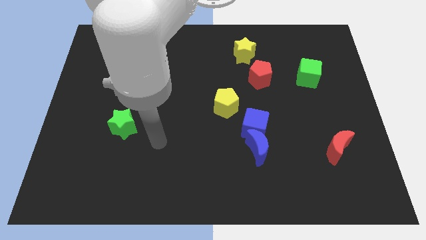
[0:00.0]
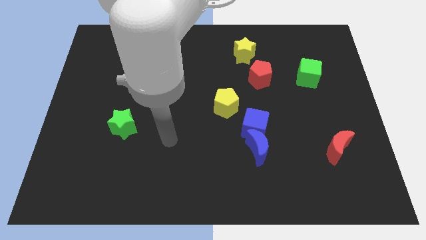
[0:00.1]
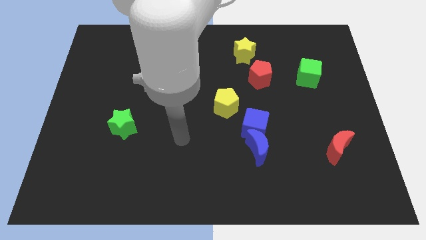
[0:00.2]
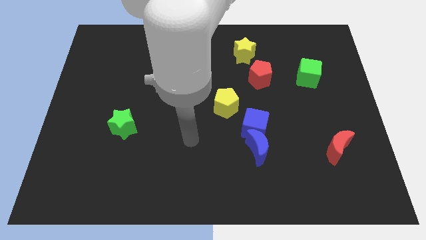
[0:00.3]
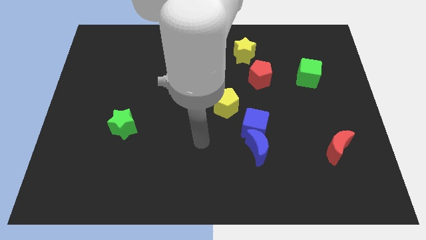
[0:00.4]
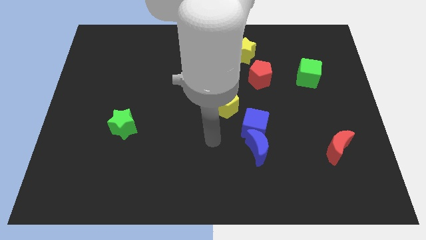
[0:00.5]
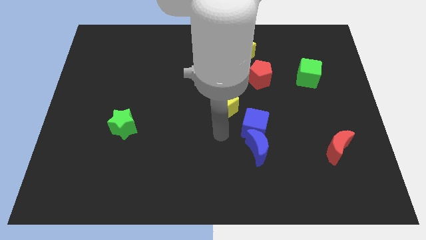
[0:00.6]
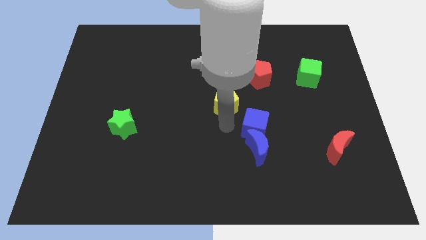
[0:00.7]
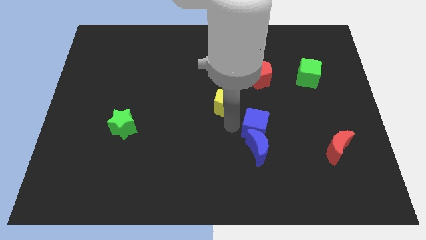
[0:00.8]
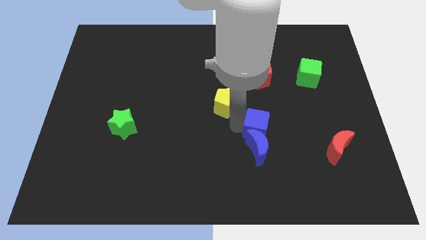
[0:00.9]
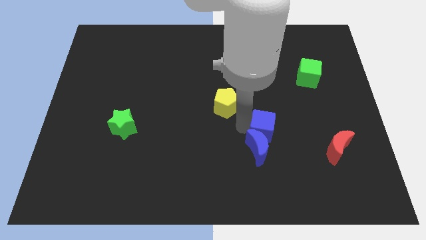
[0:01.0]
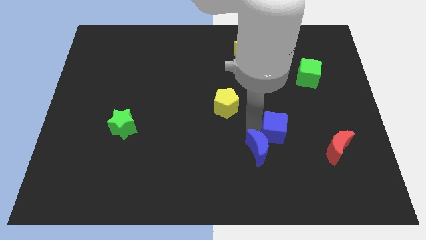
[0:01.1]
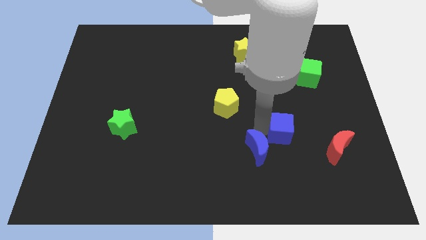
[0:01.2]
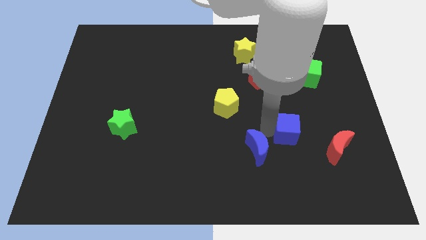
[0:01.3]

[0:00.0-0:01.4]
move the blue cube a little bit to the right

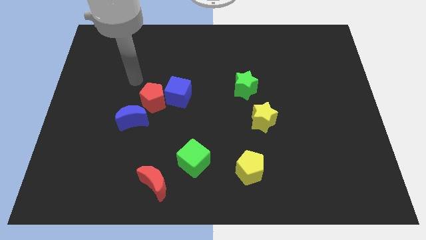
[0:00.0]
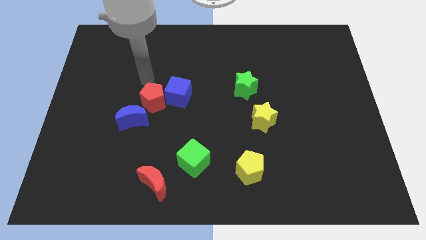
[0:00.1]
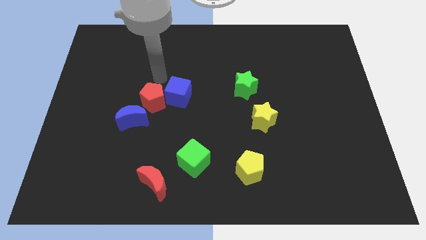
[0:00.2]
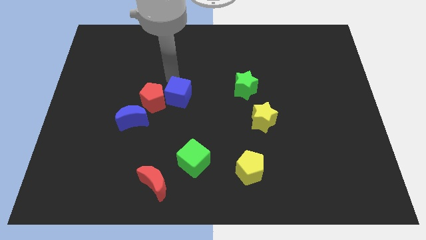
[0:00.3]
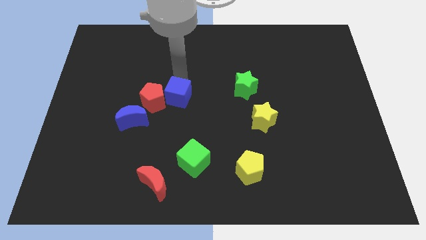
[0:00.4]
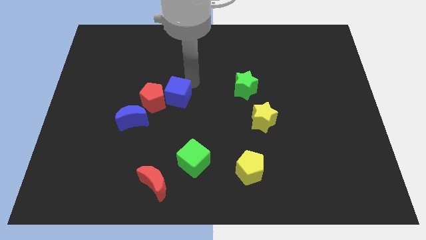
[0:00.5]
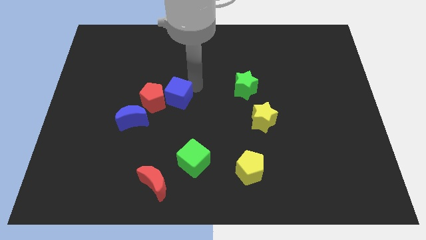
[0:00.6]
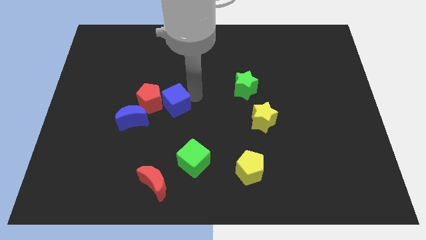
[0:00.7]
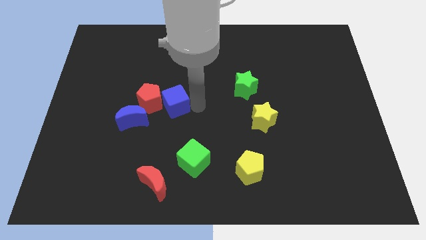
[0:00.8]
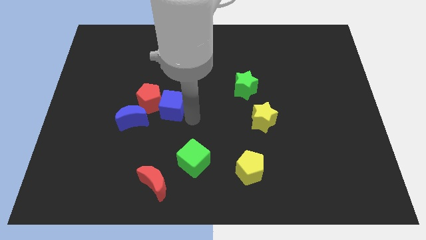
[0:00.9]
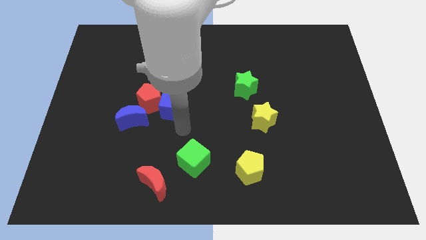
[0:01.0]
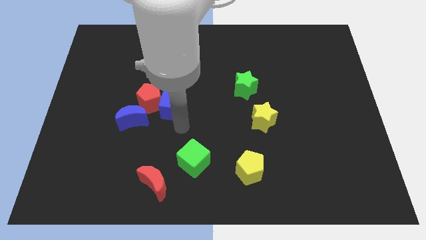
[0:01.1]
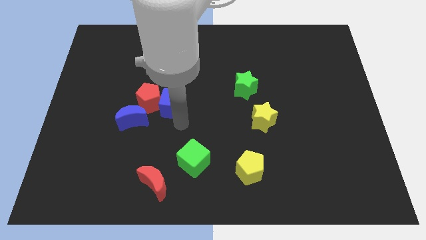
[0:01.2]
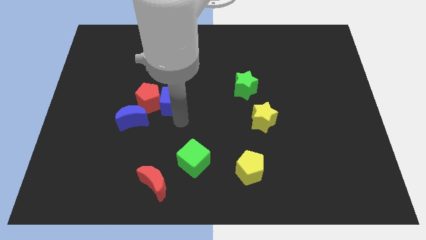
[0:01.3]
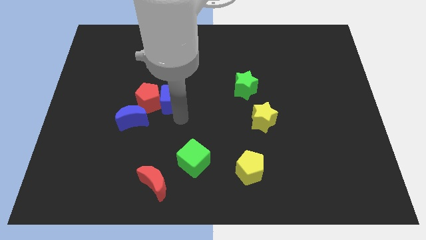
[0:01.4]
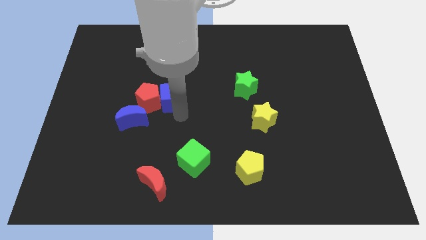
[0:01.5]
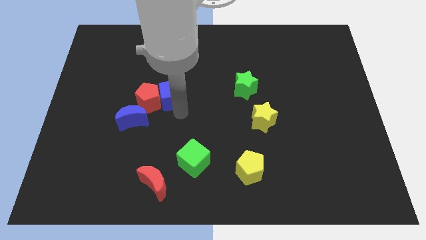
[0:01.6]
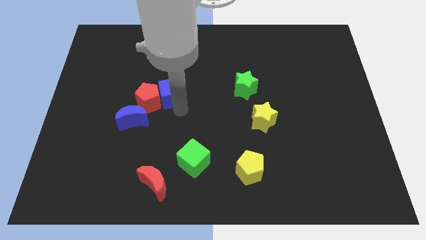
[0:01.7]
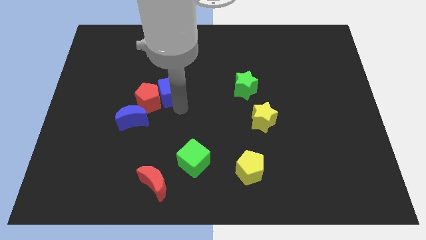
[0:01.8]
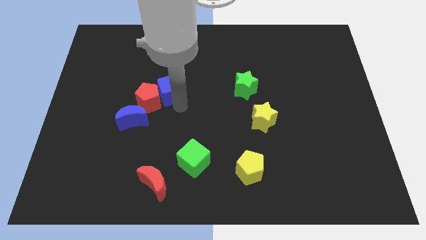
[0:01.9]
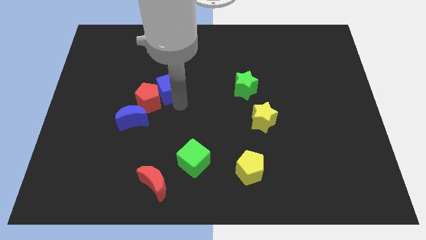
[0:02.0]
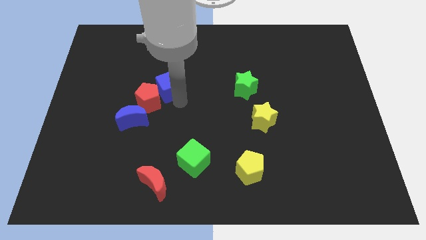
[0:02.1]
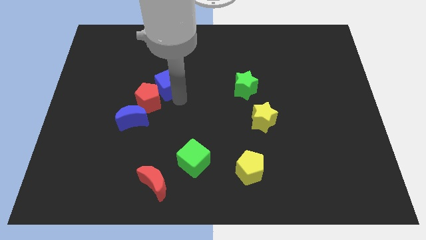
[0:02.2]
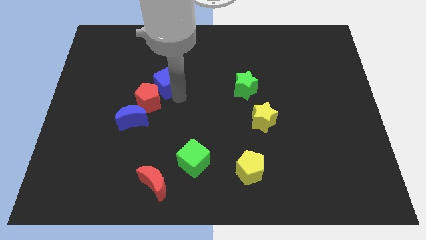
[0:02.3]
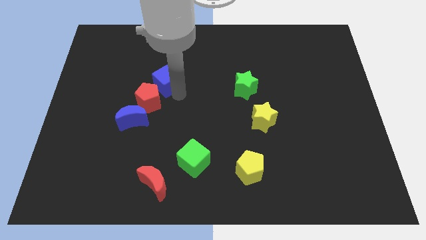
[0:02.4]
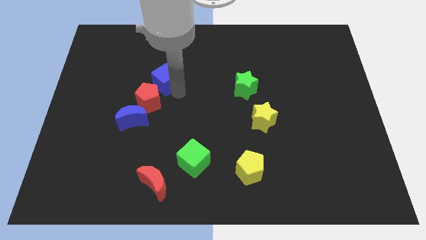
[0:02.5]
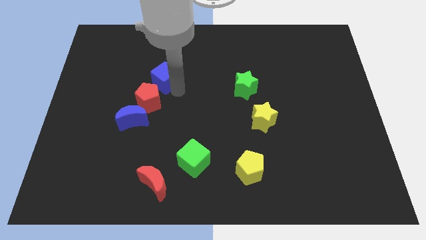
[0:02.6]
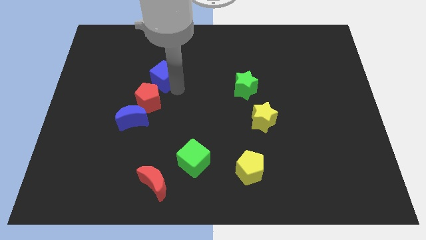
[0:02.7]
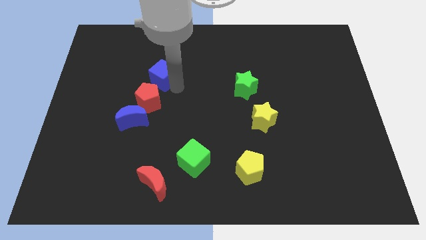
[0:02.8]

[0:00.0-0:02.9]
push the blue cube upwards and to the left diagonally somewhat

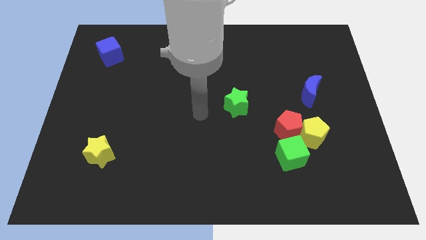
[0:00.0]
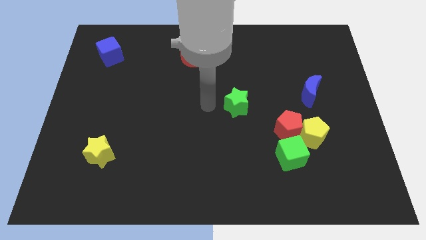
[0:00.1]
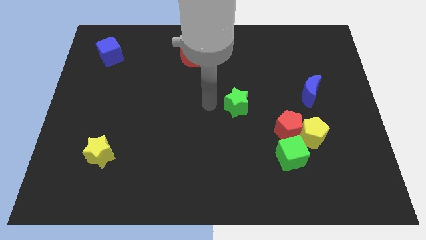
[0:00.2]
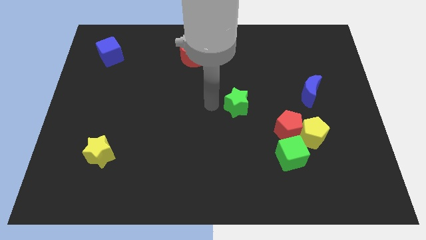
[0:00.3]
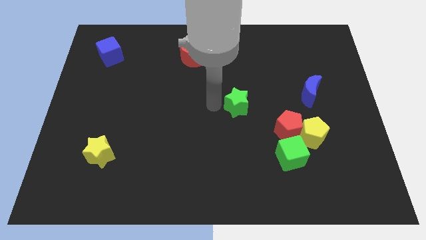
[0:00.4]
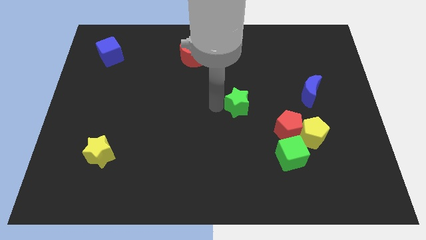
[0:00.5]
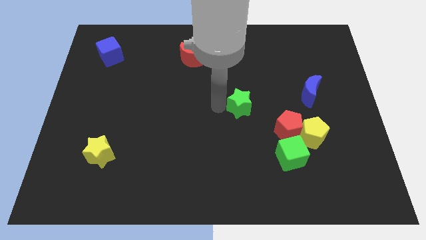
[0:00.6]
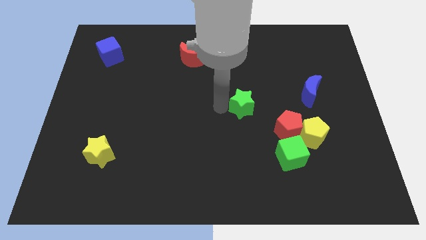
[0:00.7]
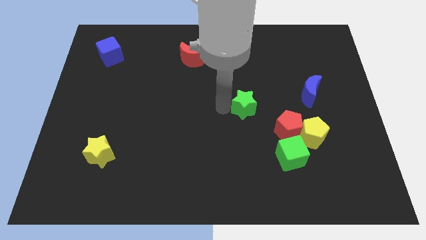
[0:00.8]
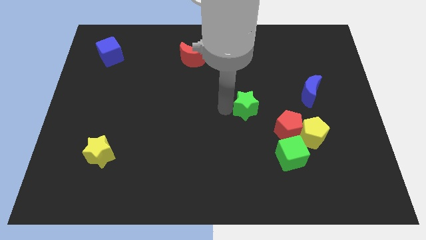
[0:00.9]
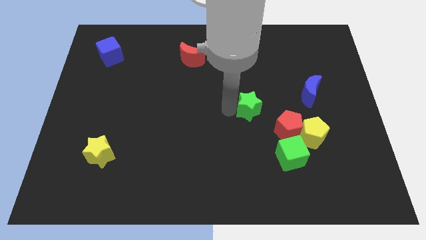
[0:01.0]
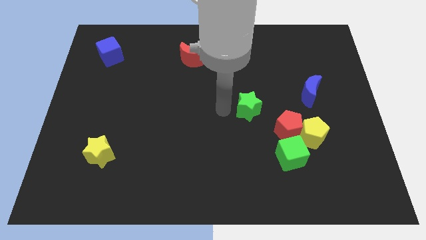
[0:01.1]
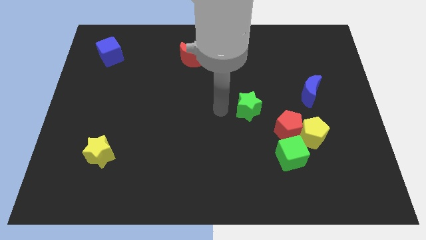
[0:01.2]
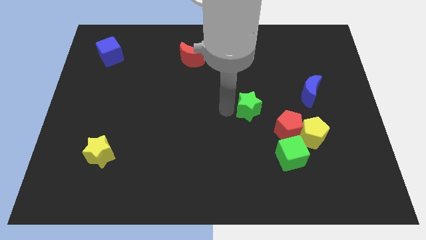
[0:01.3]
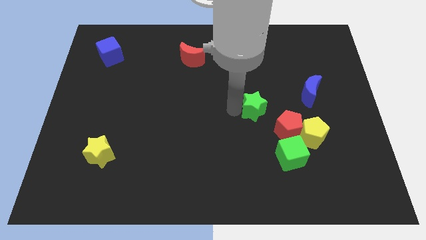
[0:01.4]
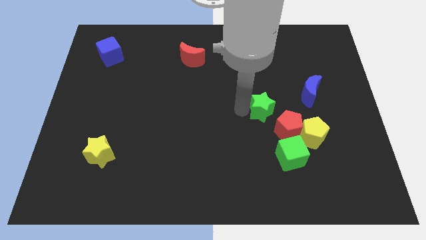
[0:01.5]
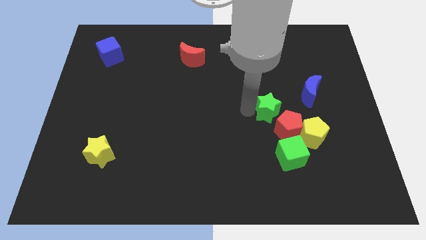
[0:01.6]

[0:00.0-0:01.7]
push the green star a little bit right

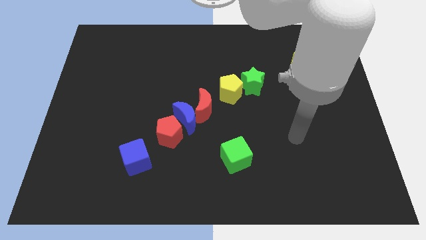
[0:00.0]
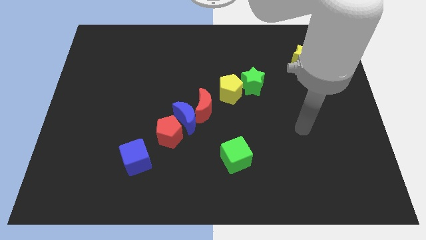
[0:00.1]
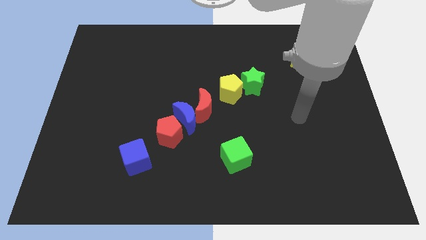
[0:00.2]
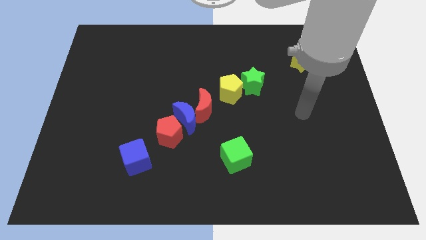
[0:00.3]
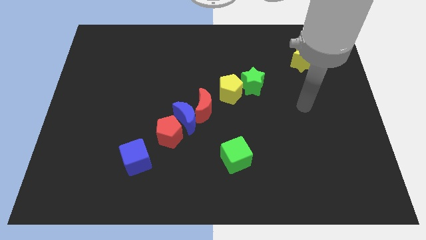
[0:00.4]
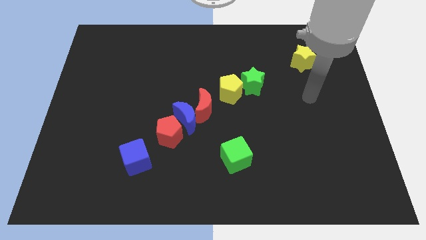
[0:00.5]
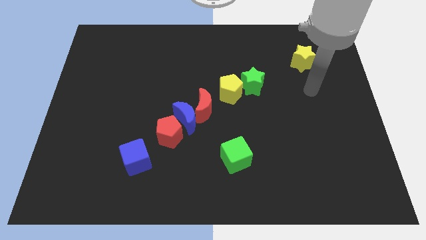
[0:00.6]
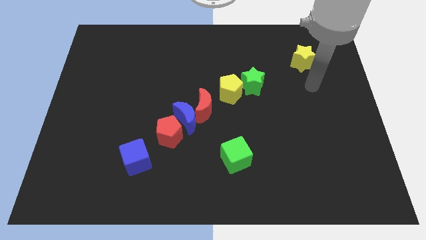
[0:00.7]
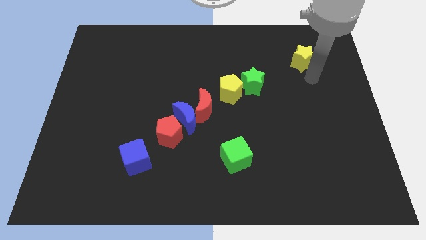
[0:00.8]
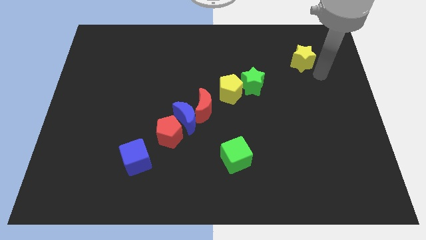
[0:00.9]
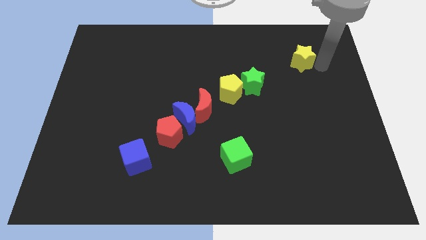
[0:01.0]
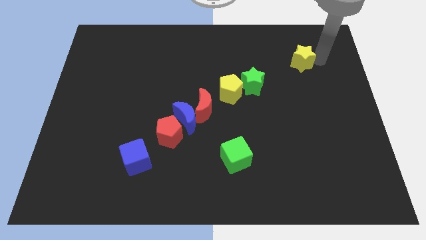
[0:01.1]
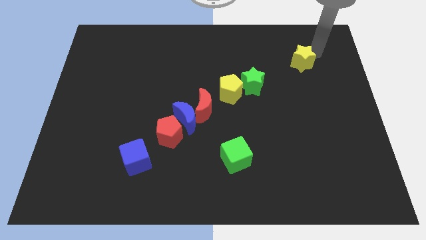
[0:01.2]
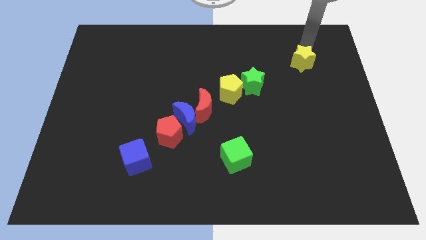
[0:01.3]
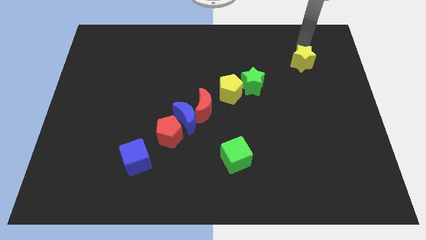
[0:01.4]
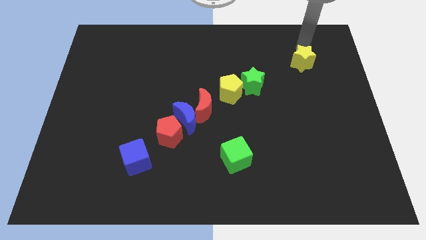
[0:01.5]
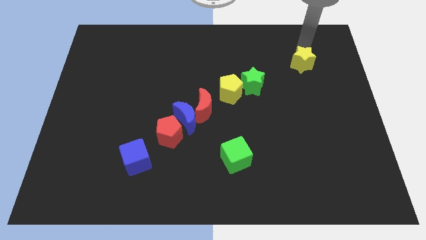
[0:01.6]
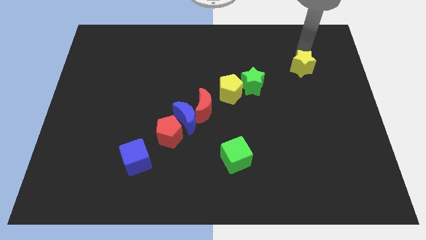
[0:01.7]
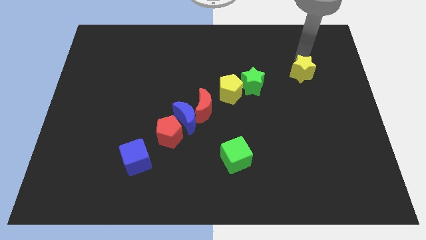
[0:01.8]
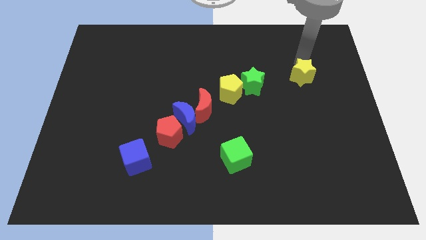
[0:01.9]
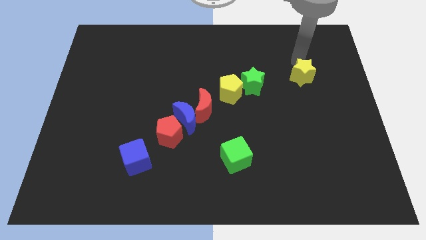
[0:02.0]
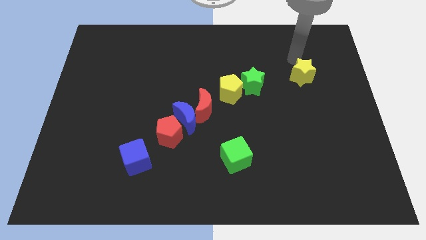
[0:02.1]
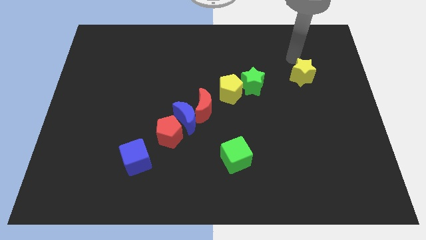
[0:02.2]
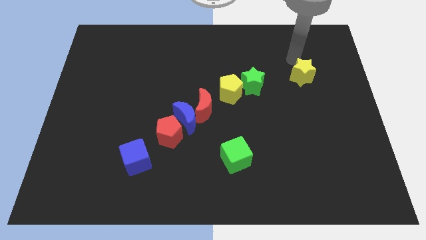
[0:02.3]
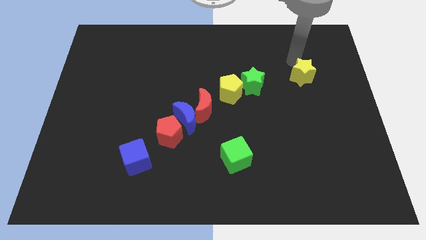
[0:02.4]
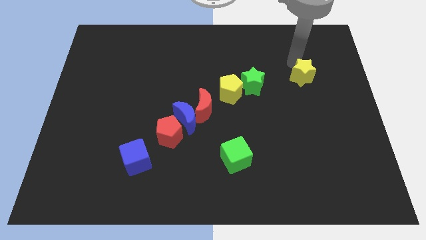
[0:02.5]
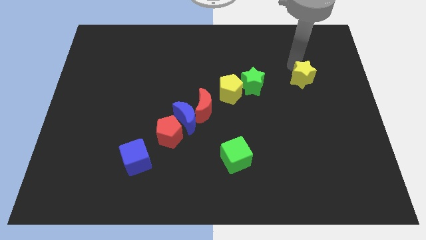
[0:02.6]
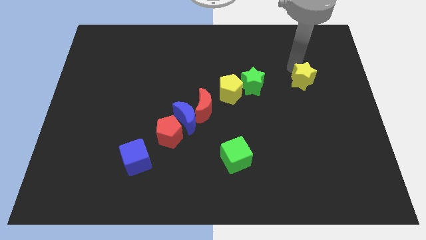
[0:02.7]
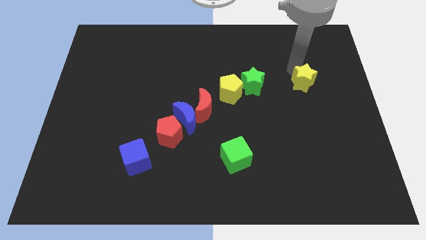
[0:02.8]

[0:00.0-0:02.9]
slide the yellow star down a bit

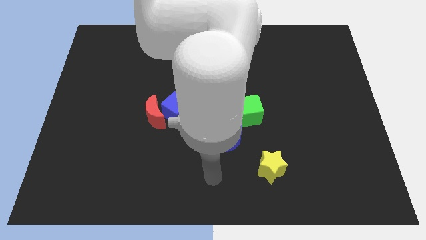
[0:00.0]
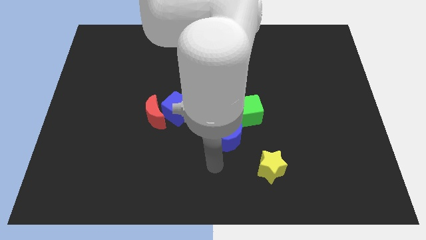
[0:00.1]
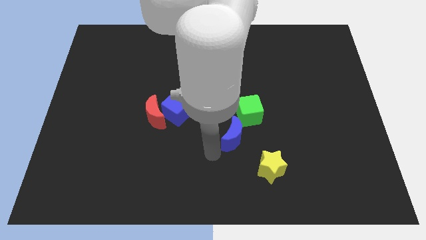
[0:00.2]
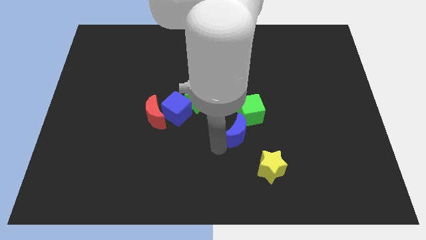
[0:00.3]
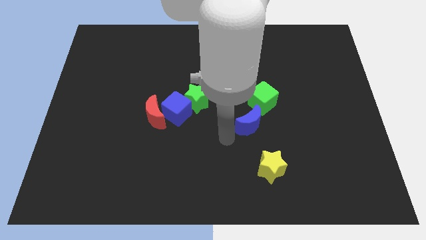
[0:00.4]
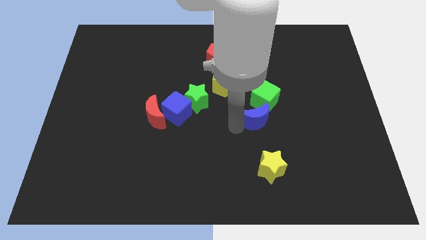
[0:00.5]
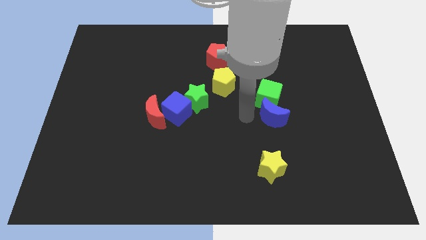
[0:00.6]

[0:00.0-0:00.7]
slightly push the green cube up and to the right diagonally
